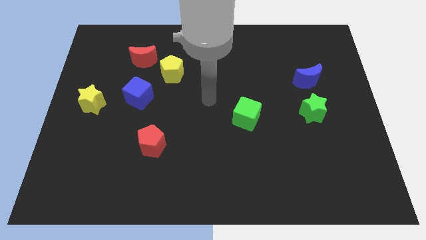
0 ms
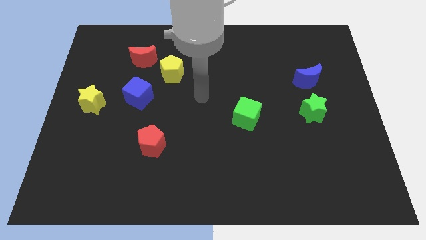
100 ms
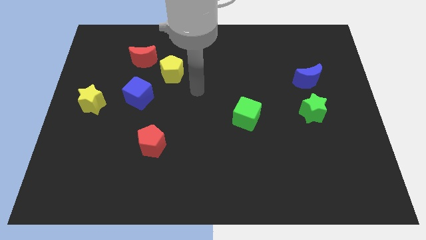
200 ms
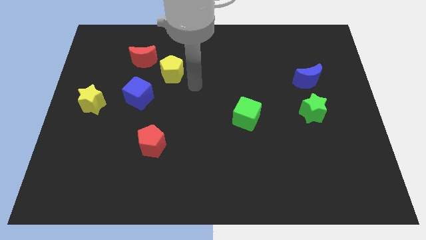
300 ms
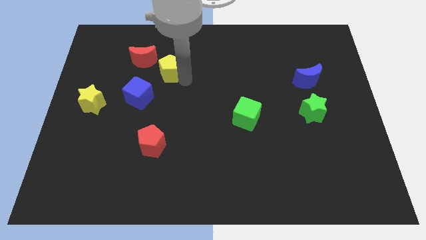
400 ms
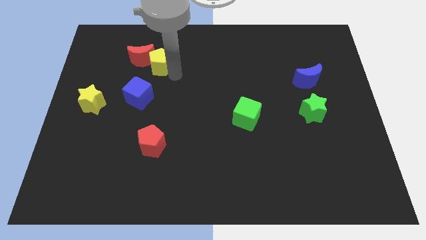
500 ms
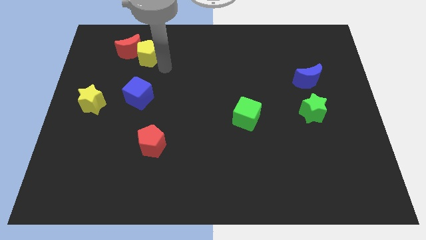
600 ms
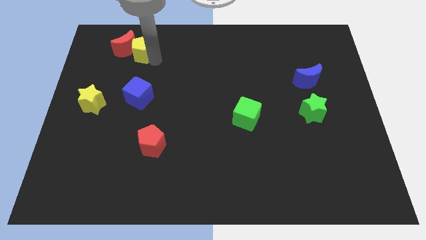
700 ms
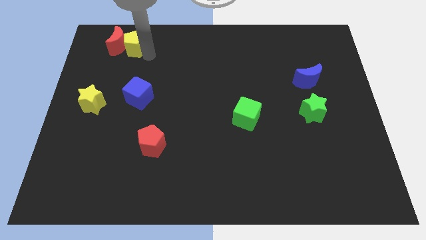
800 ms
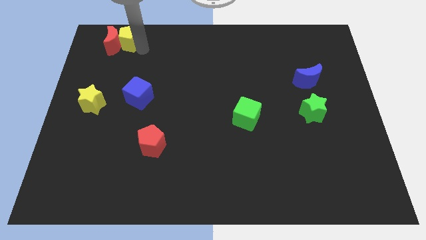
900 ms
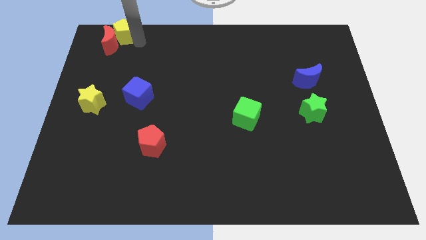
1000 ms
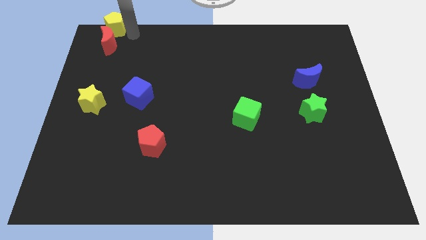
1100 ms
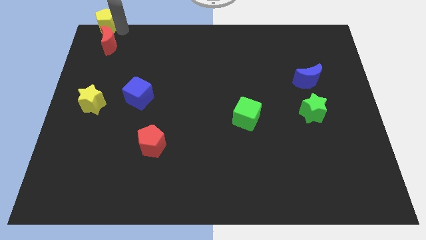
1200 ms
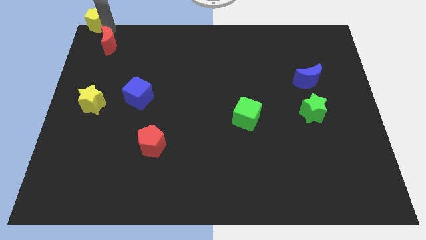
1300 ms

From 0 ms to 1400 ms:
separate the red moon from the yellow pentagon

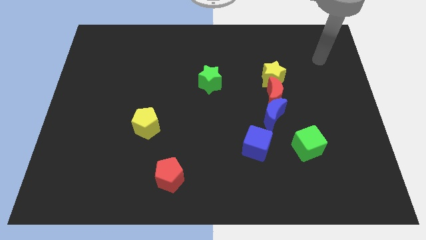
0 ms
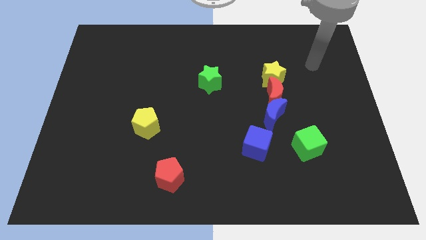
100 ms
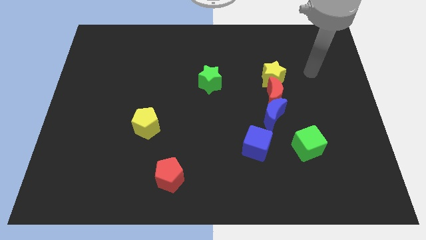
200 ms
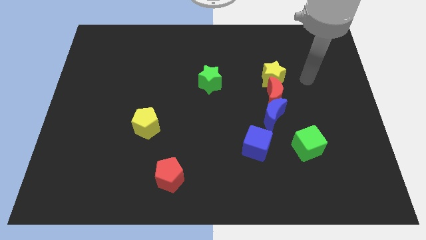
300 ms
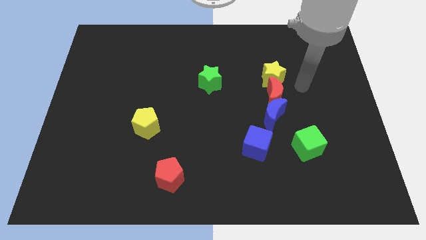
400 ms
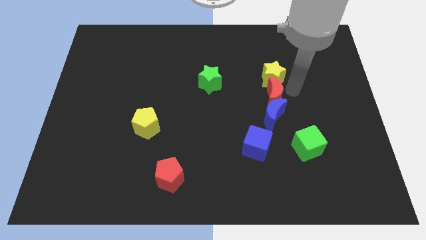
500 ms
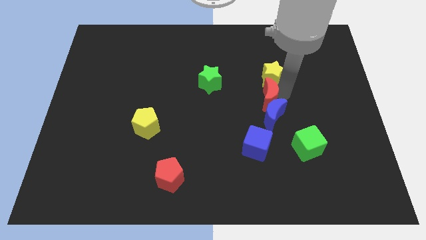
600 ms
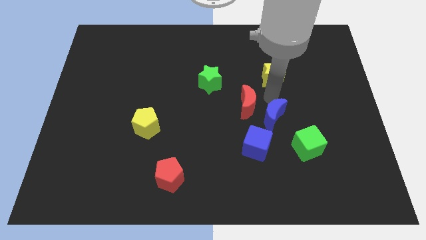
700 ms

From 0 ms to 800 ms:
pull the yellow star apart from the red moon

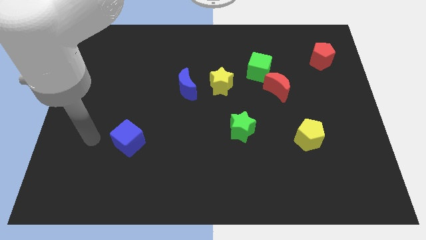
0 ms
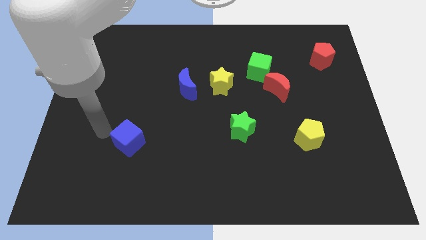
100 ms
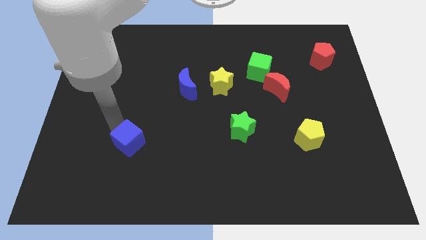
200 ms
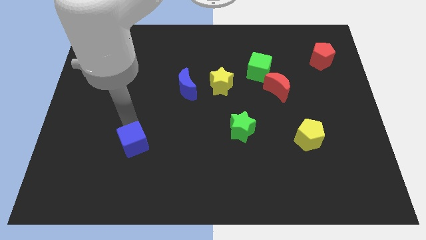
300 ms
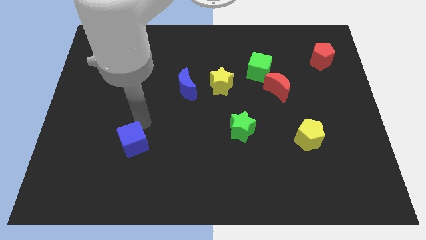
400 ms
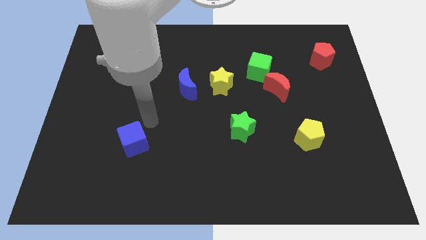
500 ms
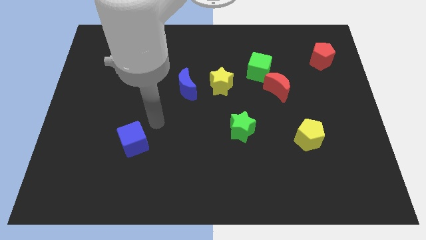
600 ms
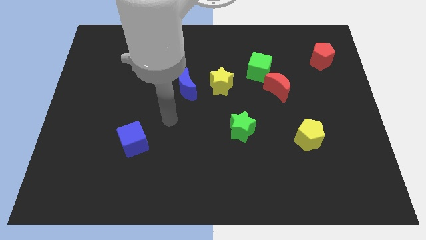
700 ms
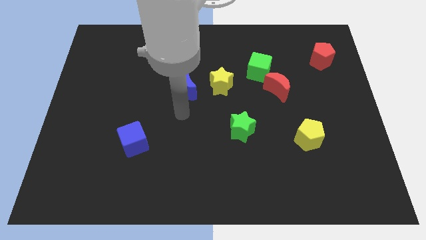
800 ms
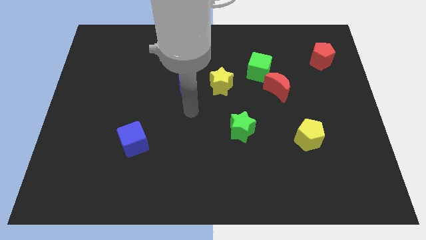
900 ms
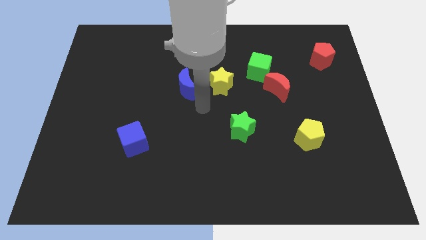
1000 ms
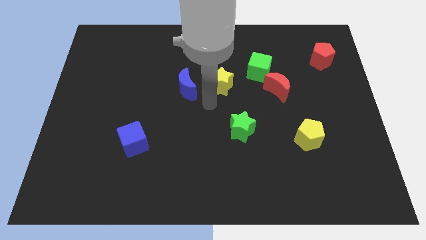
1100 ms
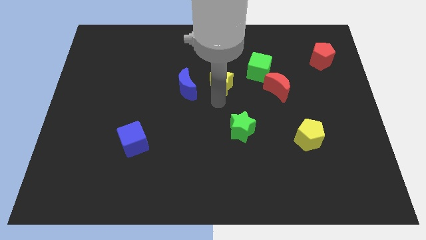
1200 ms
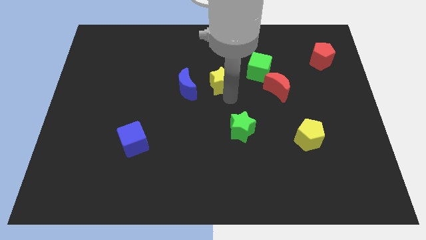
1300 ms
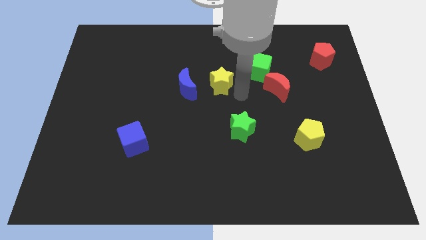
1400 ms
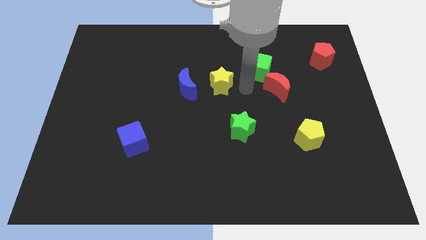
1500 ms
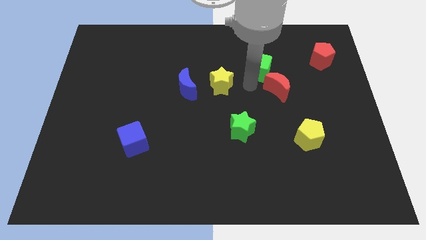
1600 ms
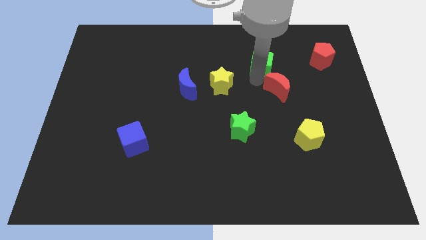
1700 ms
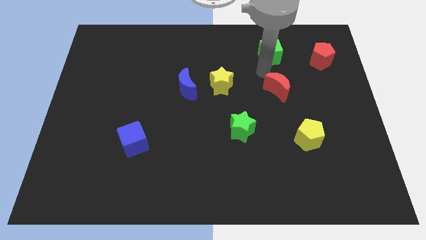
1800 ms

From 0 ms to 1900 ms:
move the red moon away from the green cube

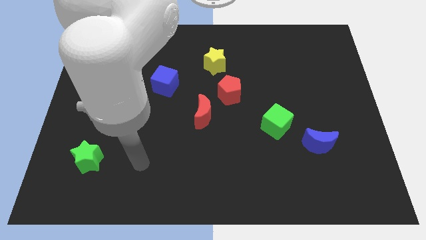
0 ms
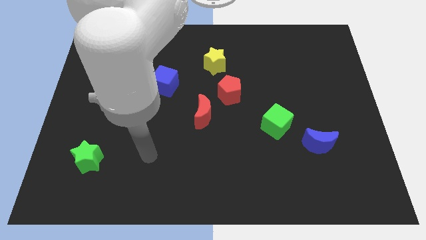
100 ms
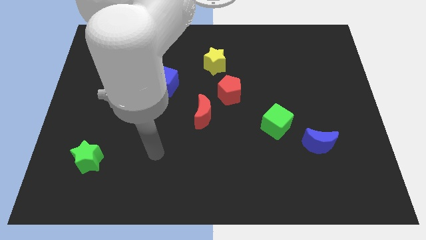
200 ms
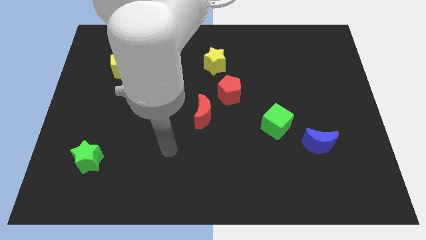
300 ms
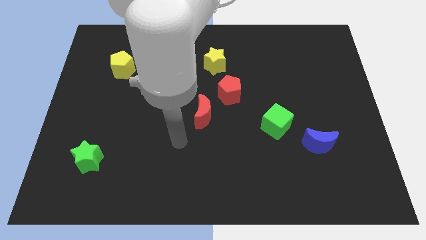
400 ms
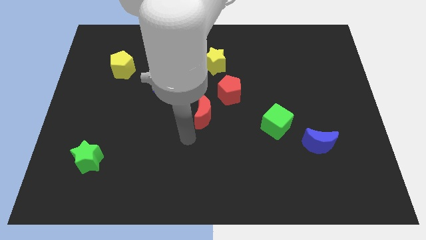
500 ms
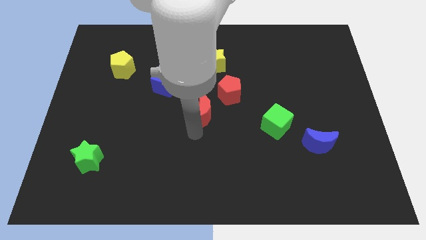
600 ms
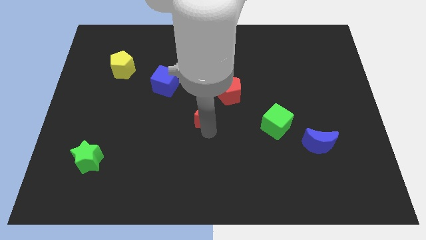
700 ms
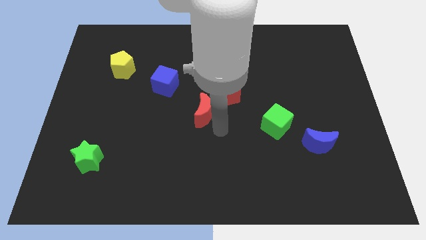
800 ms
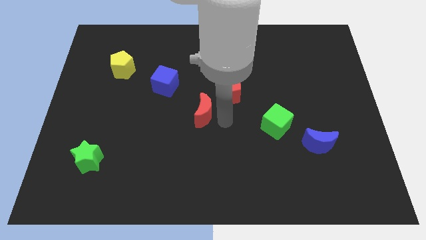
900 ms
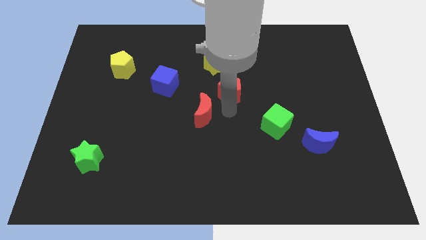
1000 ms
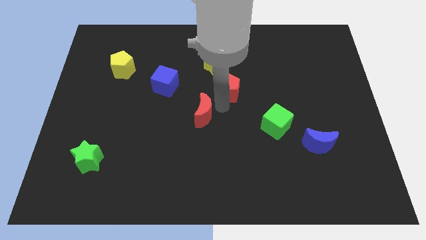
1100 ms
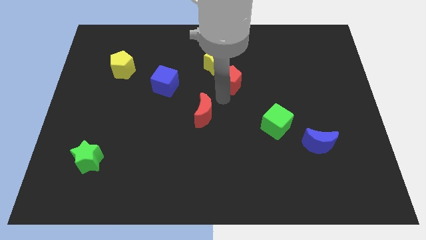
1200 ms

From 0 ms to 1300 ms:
move the red moon away from the red pentagon

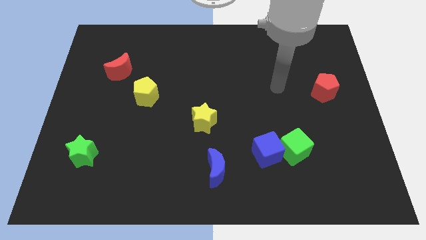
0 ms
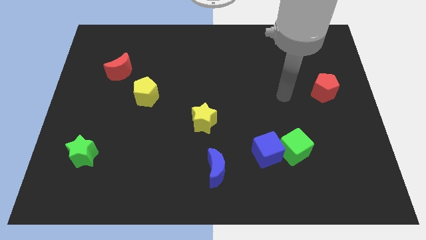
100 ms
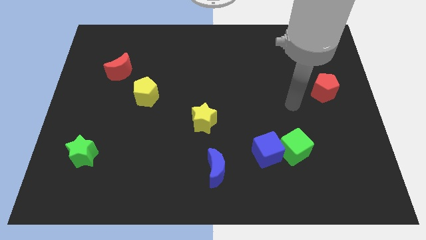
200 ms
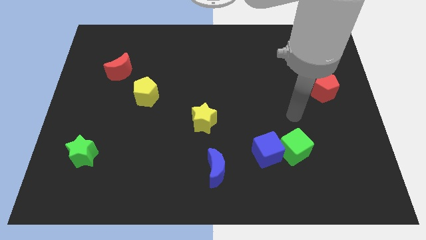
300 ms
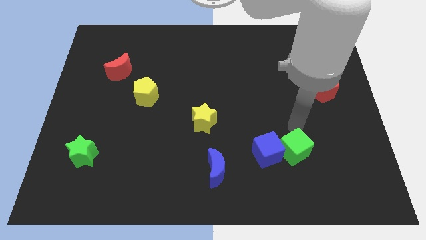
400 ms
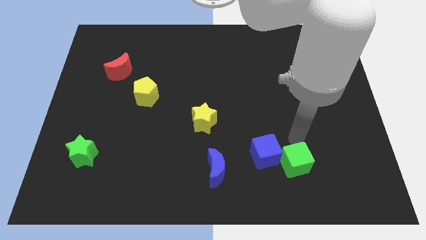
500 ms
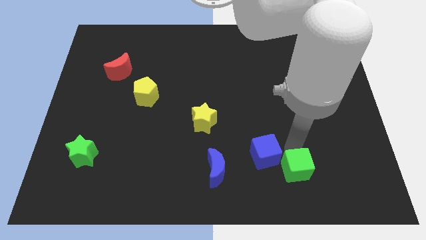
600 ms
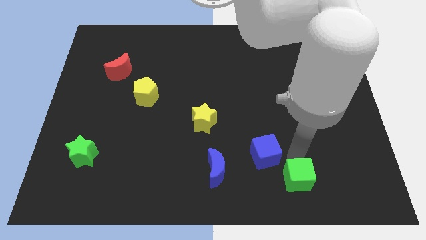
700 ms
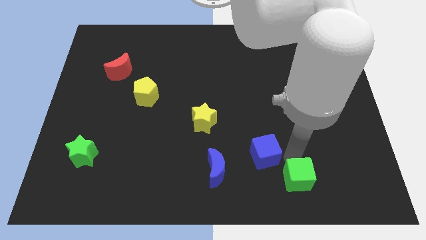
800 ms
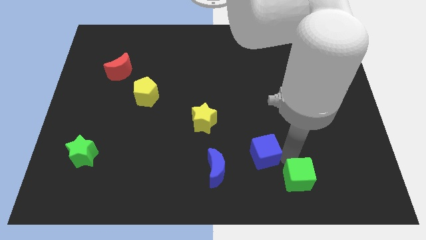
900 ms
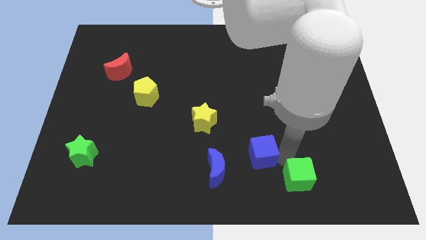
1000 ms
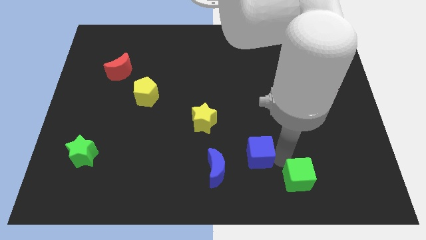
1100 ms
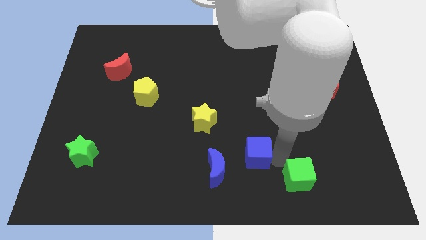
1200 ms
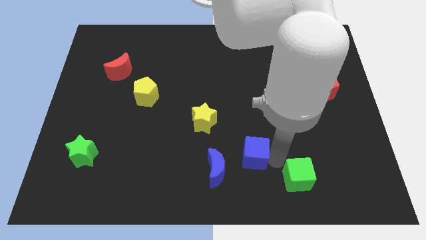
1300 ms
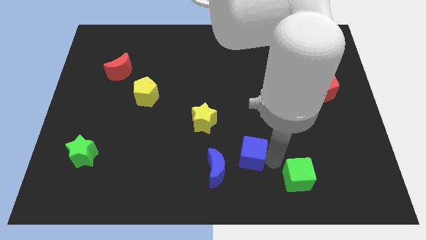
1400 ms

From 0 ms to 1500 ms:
pull the blue cube apart from the green cube

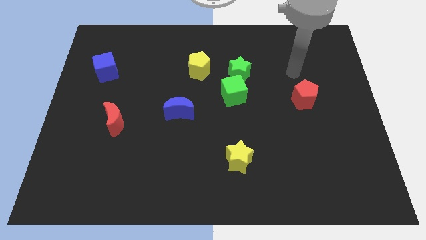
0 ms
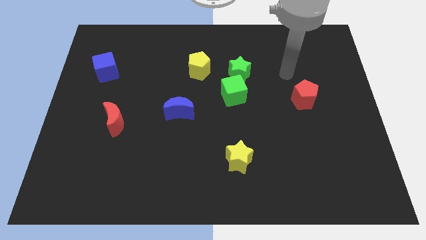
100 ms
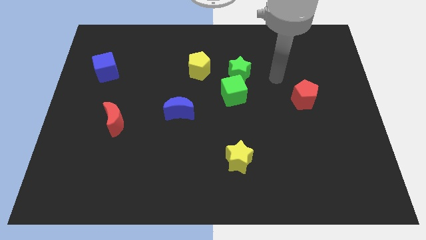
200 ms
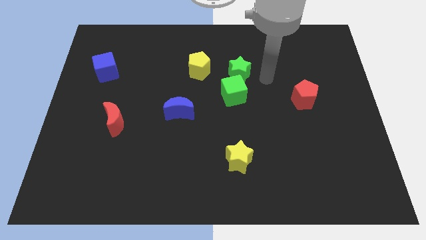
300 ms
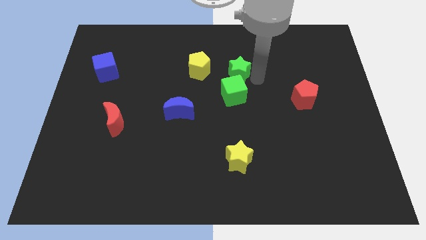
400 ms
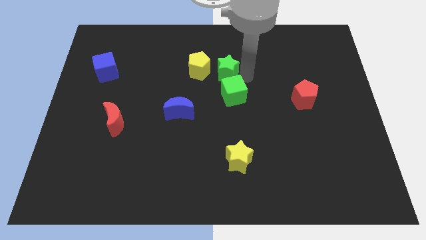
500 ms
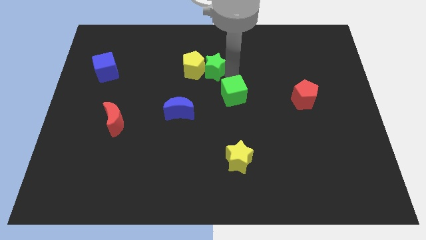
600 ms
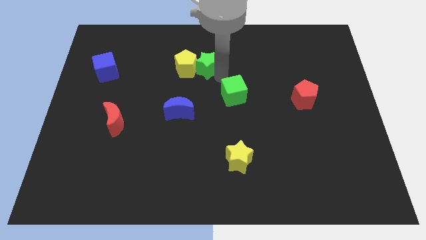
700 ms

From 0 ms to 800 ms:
pull the green cube apart from the green star

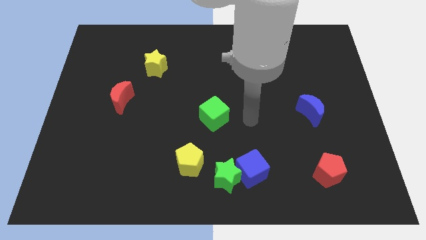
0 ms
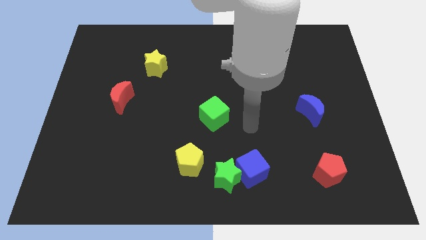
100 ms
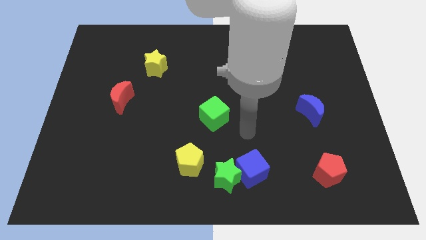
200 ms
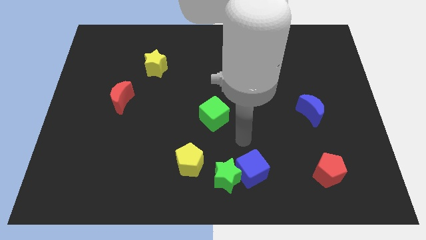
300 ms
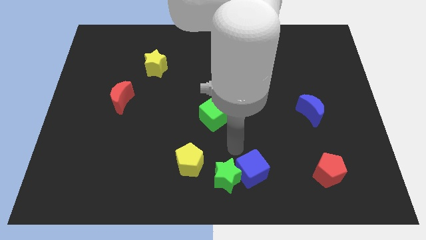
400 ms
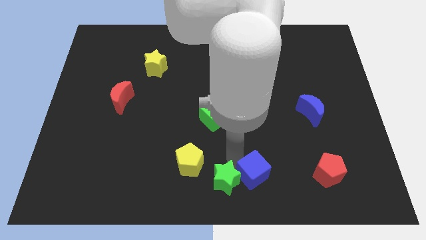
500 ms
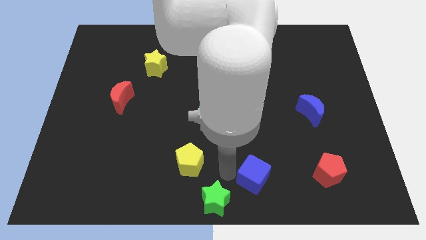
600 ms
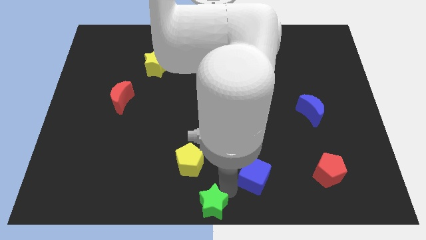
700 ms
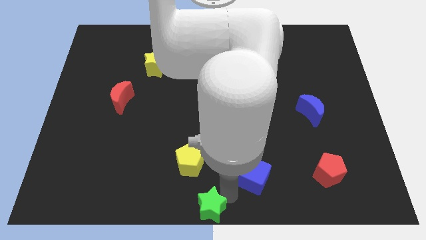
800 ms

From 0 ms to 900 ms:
separate the blue cube from the green star

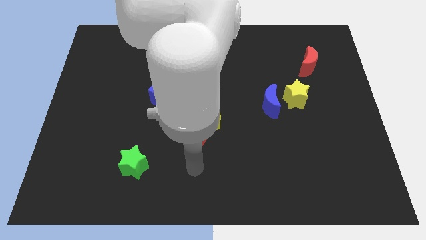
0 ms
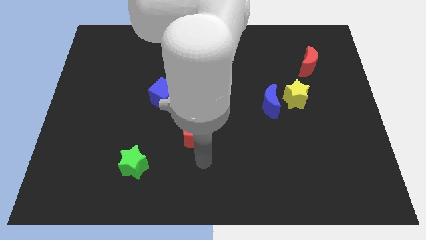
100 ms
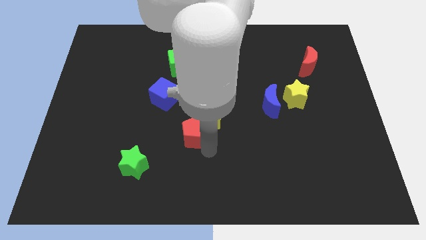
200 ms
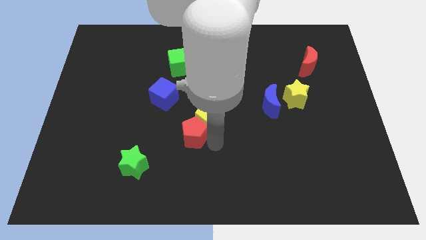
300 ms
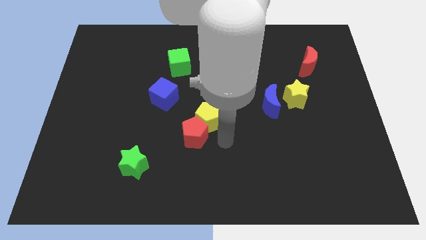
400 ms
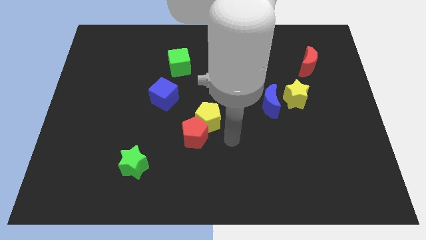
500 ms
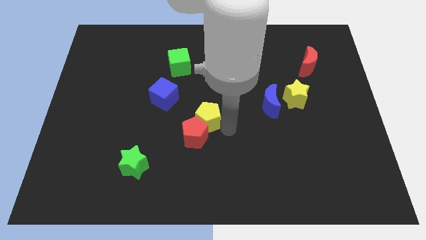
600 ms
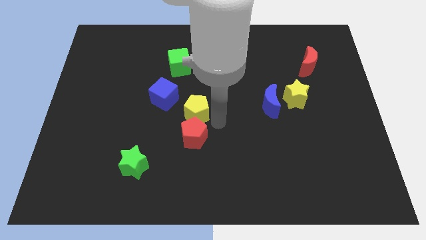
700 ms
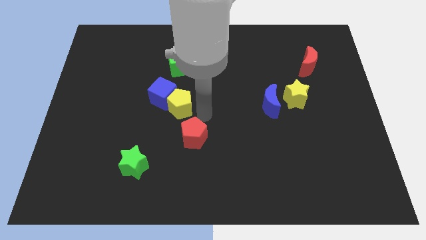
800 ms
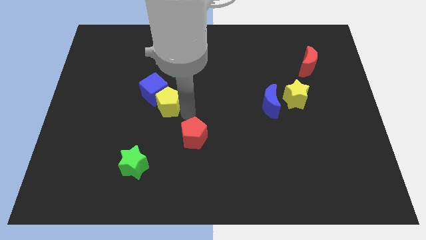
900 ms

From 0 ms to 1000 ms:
move the red pentagon away from the yellow pentagon
